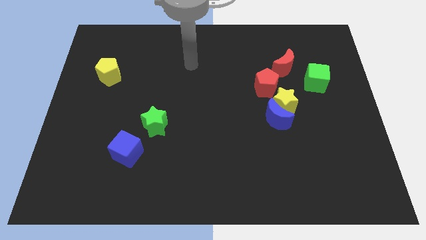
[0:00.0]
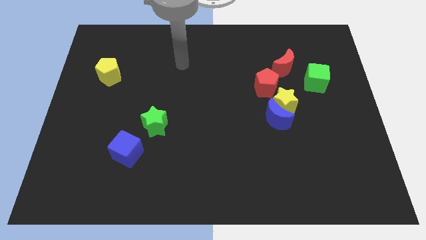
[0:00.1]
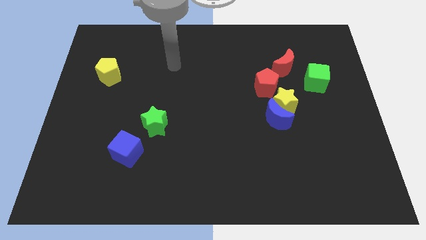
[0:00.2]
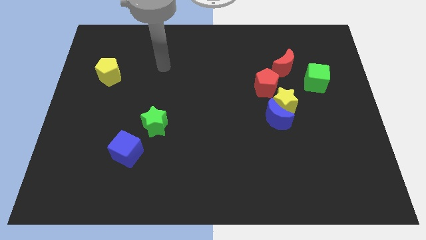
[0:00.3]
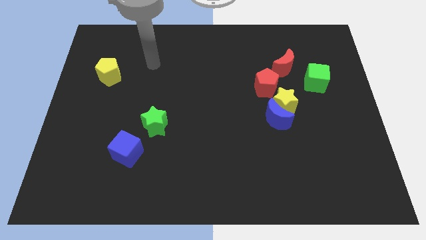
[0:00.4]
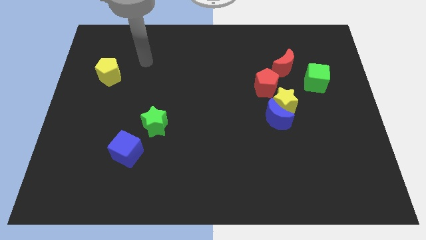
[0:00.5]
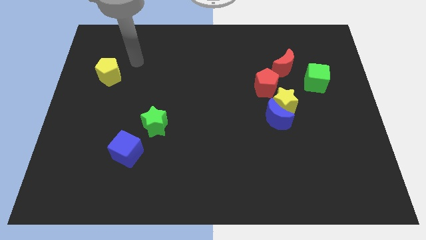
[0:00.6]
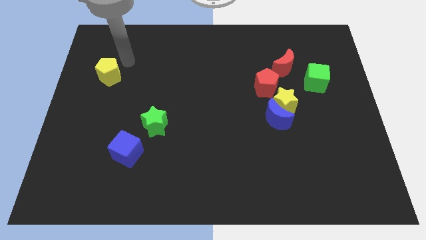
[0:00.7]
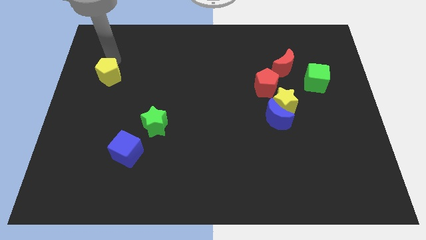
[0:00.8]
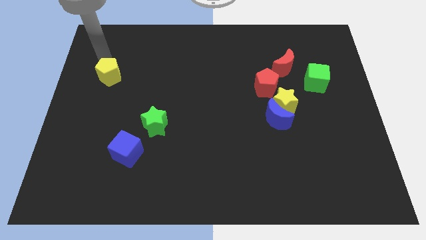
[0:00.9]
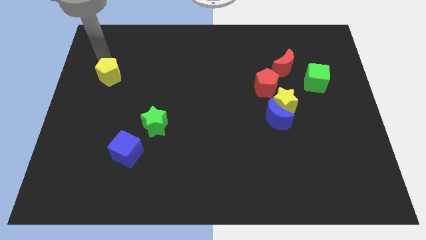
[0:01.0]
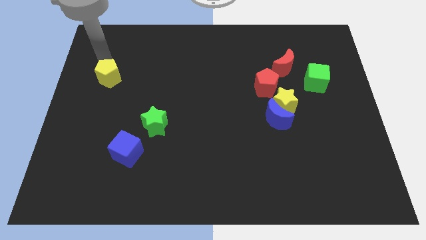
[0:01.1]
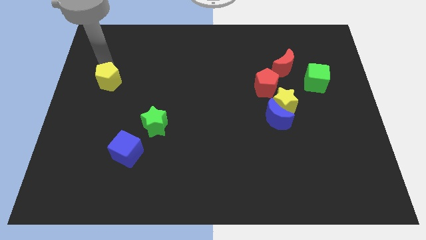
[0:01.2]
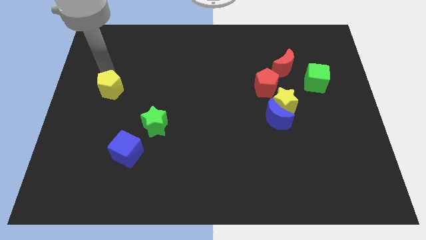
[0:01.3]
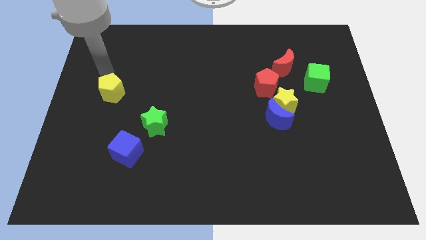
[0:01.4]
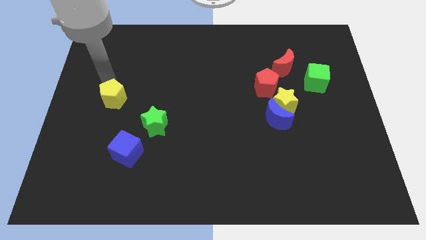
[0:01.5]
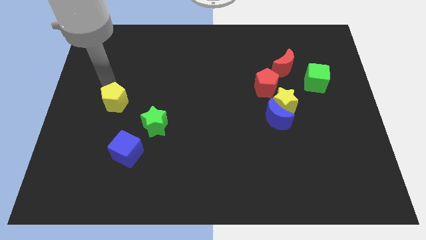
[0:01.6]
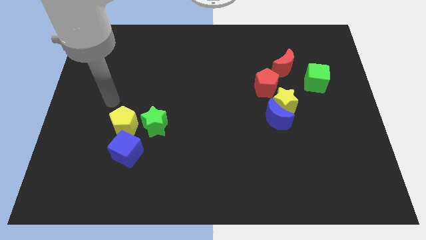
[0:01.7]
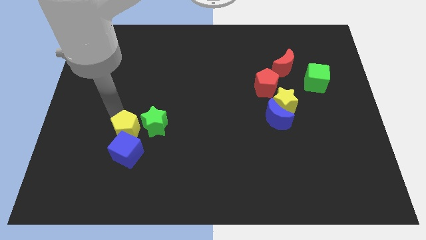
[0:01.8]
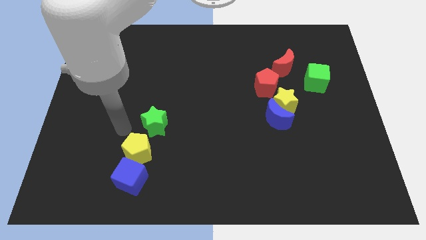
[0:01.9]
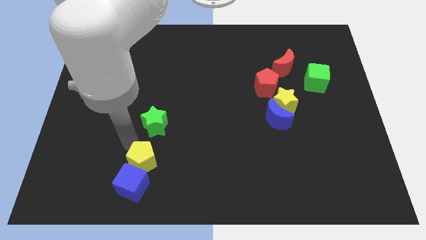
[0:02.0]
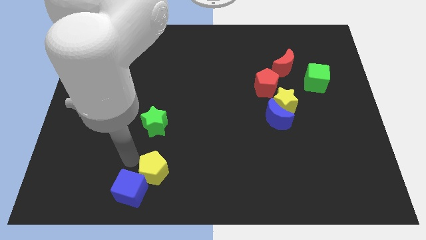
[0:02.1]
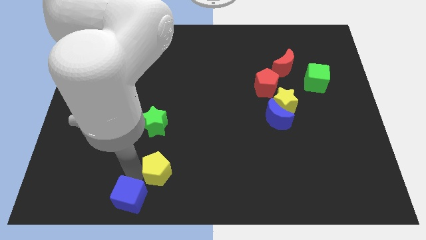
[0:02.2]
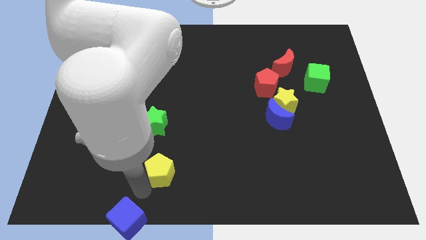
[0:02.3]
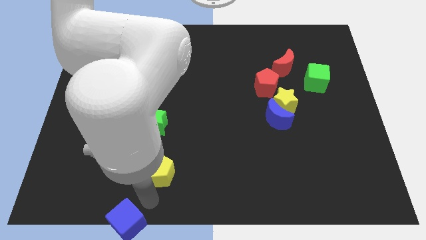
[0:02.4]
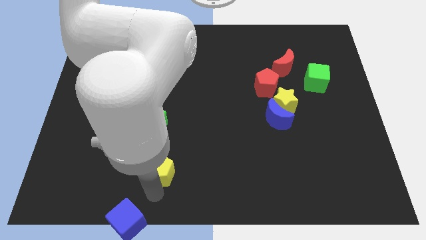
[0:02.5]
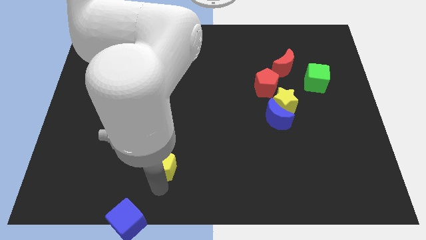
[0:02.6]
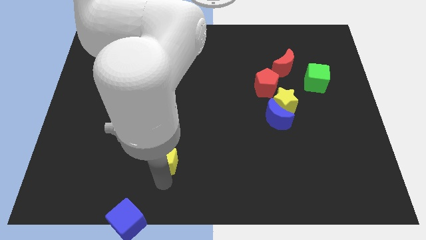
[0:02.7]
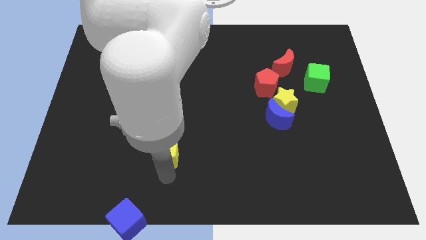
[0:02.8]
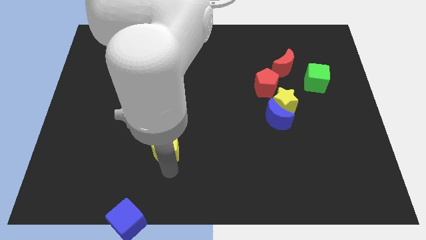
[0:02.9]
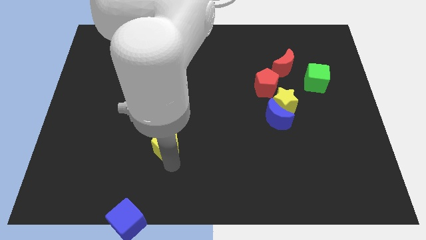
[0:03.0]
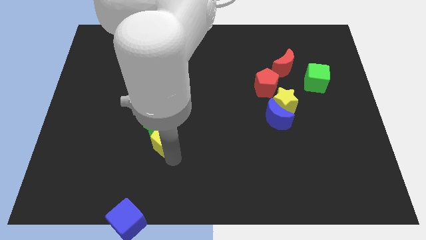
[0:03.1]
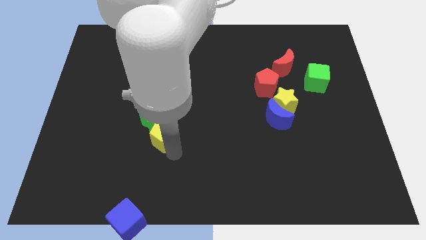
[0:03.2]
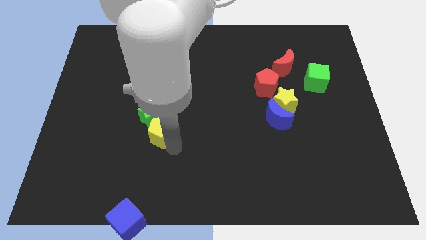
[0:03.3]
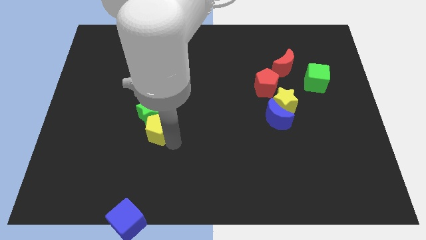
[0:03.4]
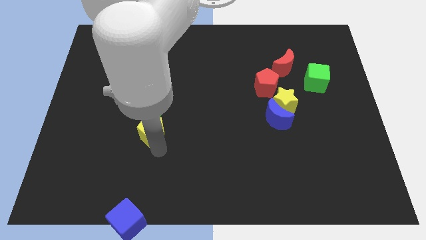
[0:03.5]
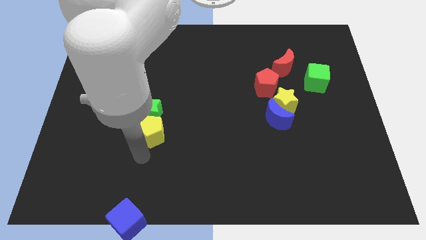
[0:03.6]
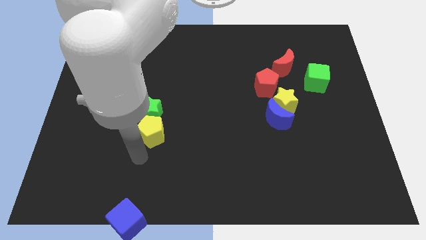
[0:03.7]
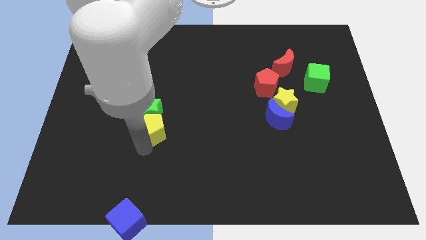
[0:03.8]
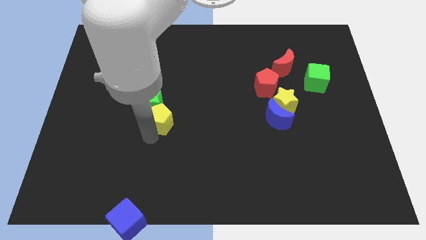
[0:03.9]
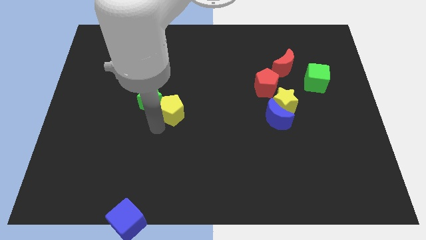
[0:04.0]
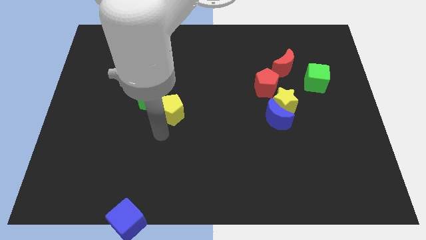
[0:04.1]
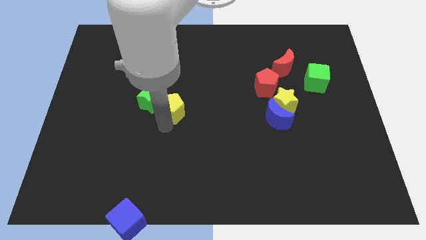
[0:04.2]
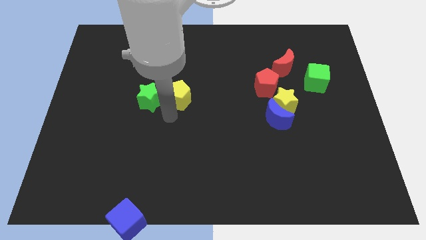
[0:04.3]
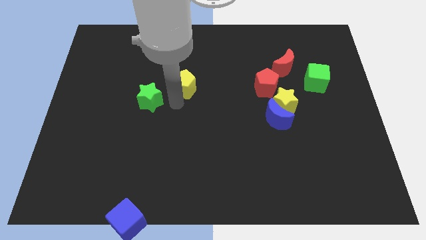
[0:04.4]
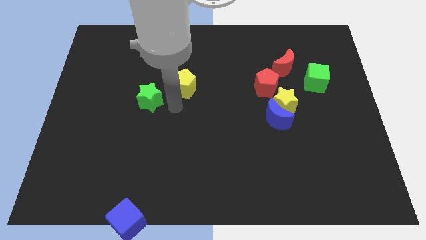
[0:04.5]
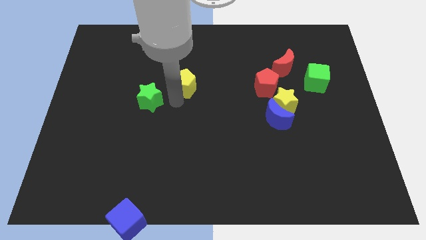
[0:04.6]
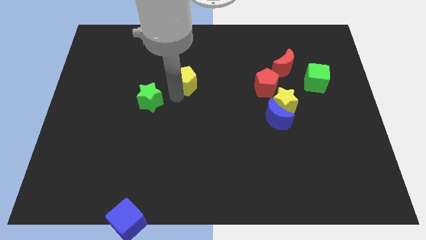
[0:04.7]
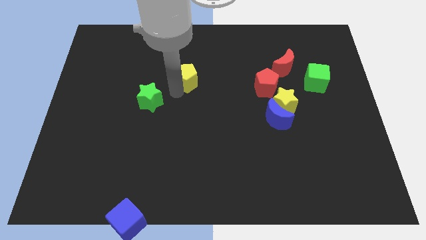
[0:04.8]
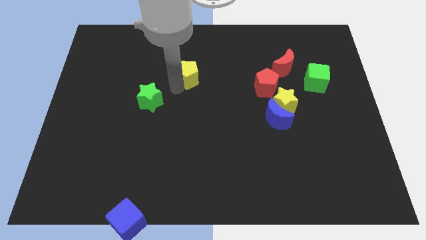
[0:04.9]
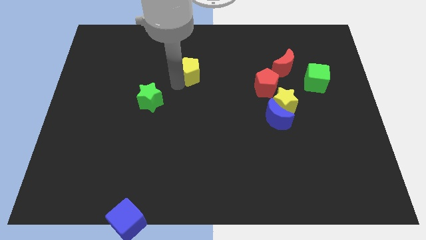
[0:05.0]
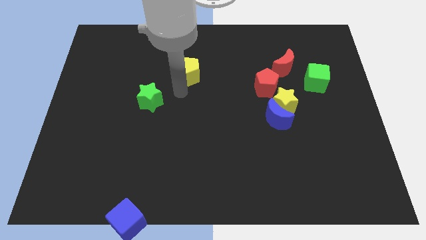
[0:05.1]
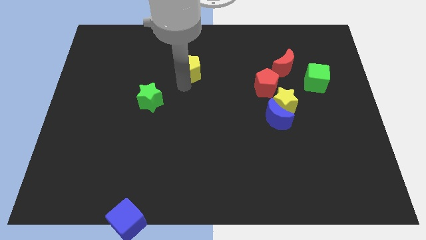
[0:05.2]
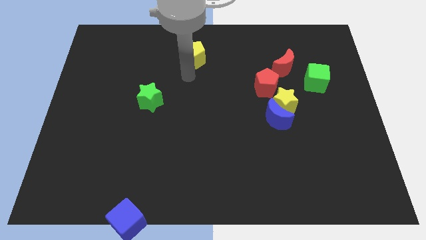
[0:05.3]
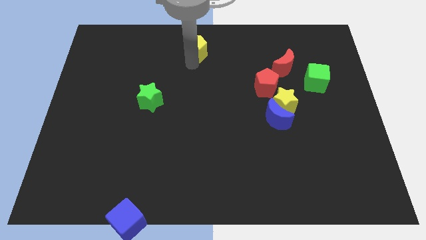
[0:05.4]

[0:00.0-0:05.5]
put the yellow pentagon to the top

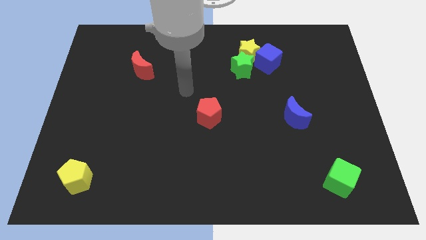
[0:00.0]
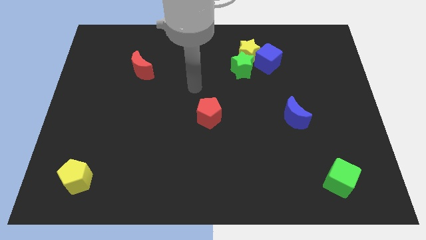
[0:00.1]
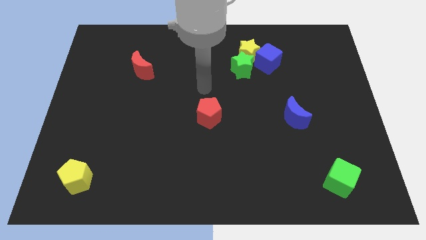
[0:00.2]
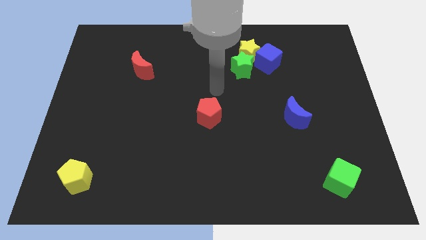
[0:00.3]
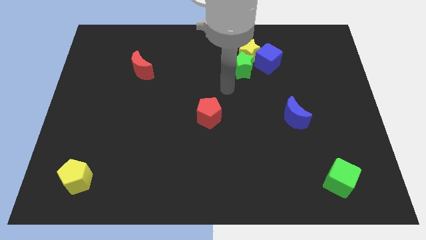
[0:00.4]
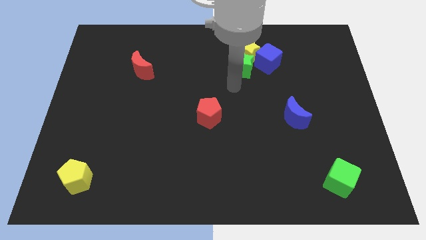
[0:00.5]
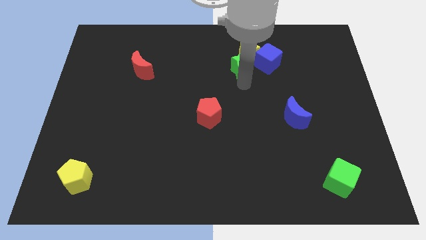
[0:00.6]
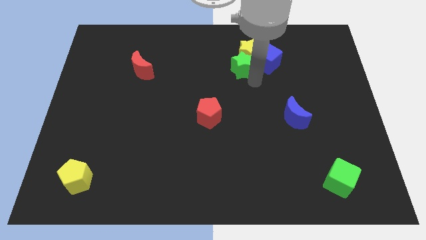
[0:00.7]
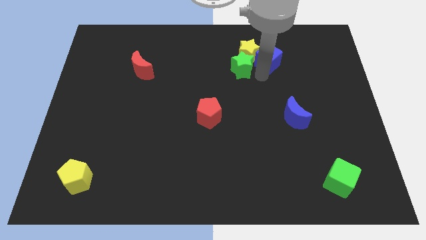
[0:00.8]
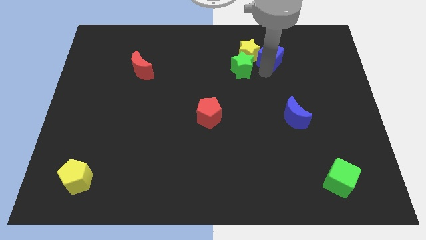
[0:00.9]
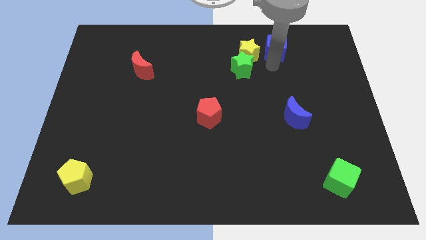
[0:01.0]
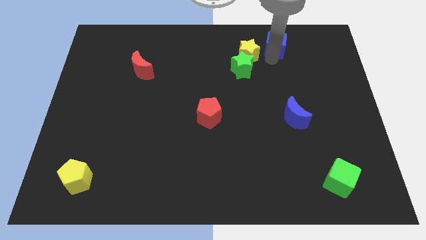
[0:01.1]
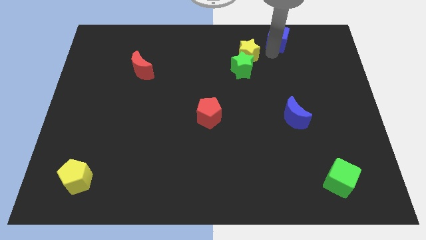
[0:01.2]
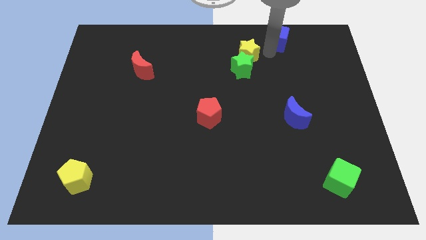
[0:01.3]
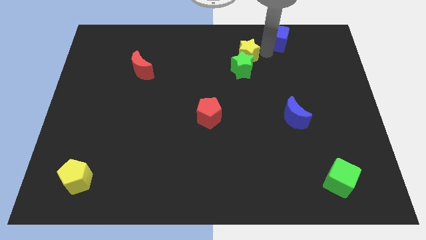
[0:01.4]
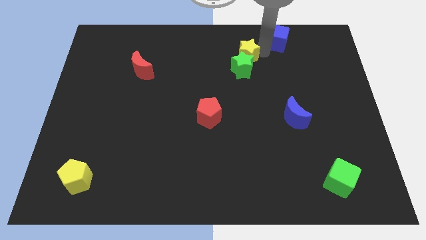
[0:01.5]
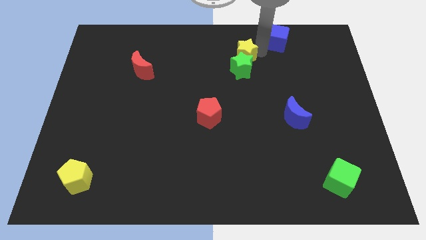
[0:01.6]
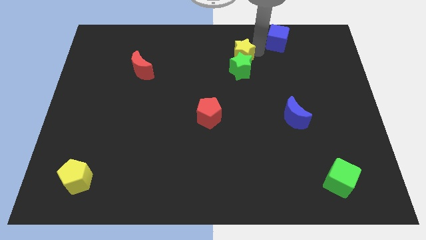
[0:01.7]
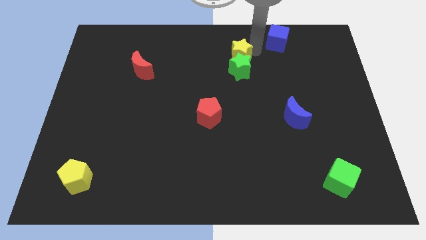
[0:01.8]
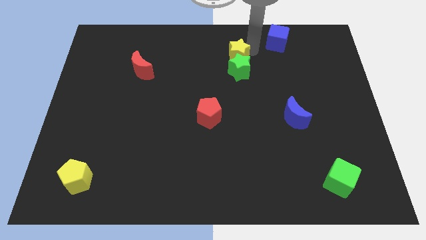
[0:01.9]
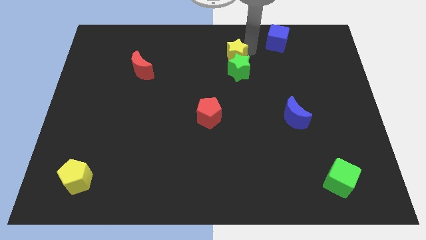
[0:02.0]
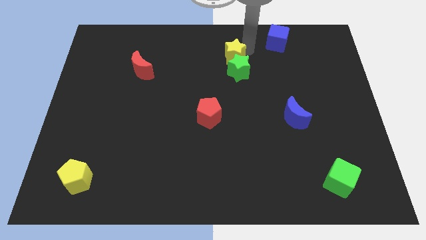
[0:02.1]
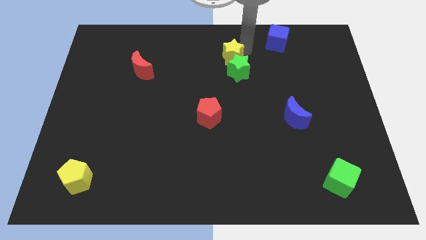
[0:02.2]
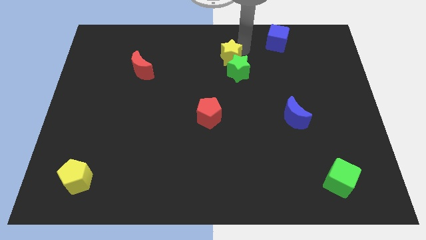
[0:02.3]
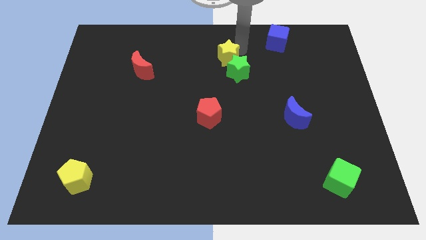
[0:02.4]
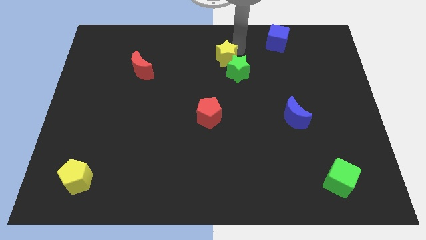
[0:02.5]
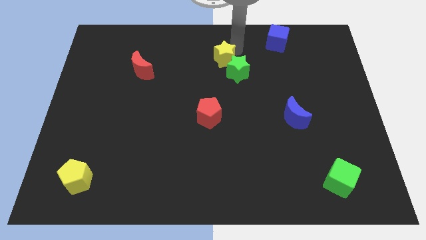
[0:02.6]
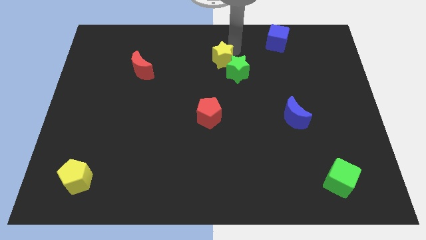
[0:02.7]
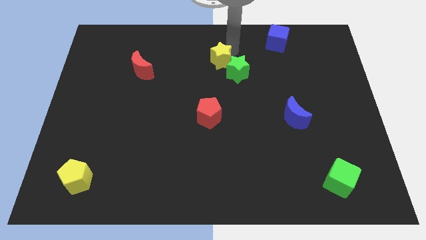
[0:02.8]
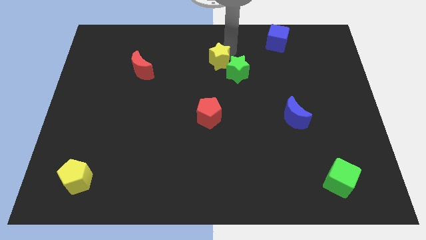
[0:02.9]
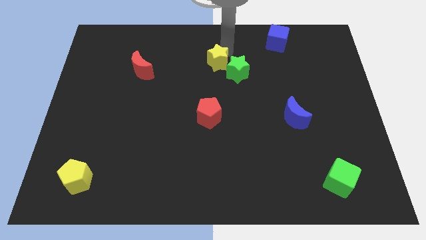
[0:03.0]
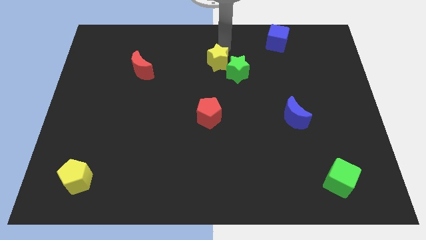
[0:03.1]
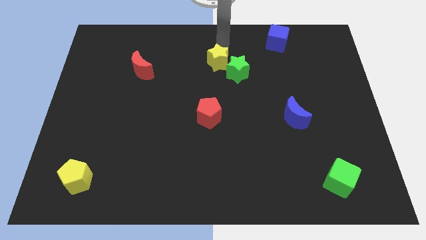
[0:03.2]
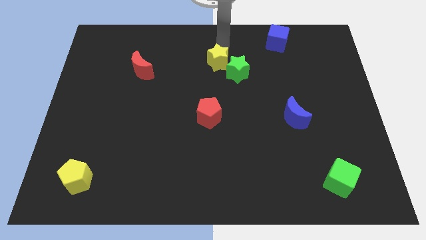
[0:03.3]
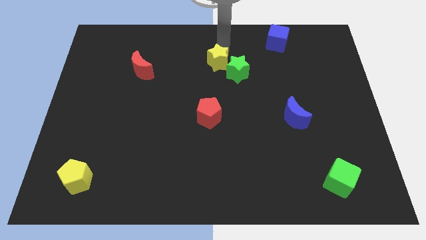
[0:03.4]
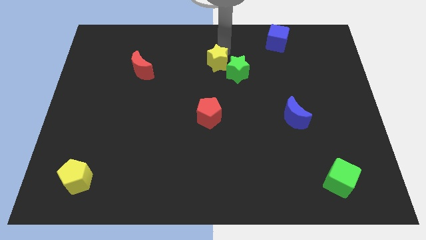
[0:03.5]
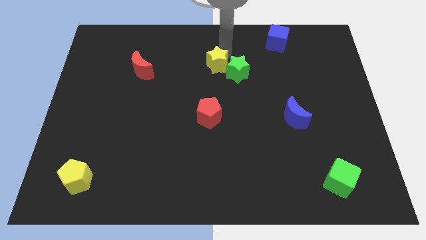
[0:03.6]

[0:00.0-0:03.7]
slide the yellow star to the middle
